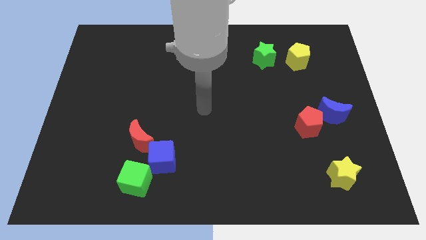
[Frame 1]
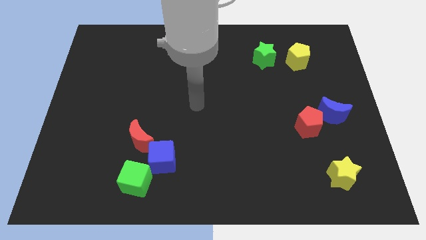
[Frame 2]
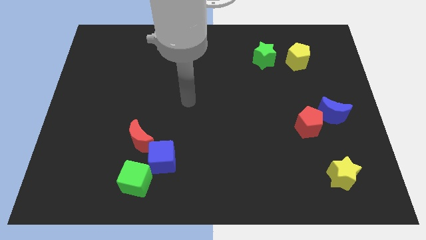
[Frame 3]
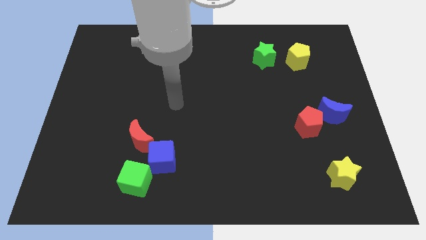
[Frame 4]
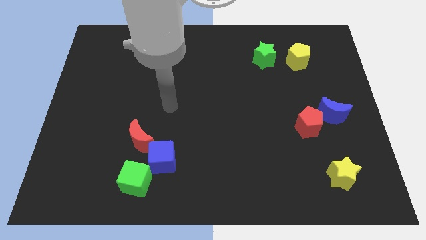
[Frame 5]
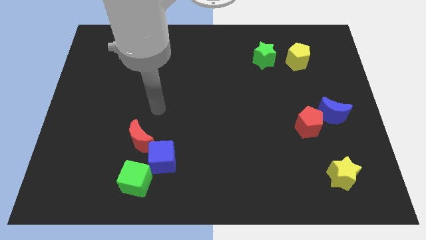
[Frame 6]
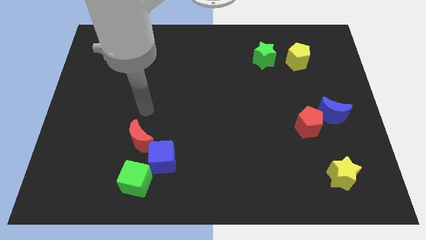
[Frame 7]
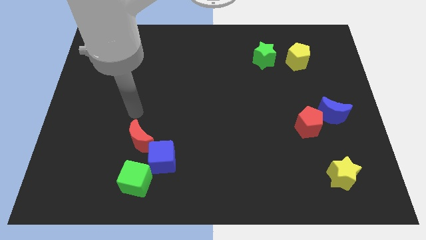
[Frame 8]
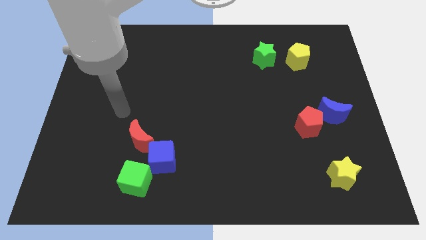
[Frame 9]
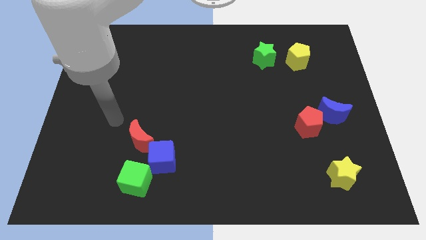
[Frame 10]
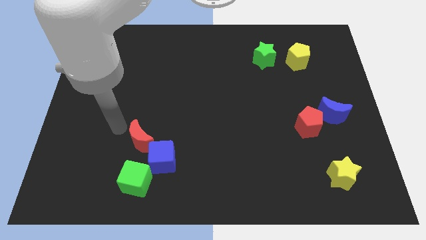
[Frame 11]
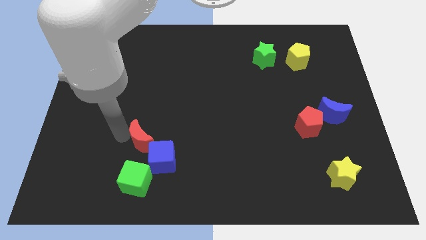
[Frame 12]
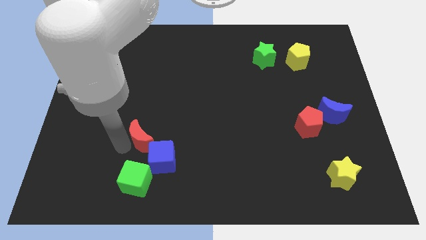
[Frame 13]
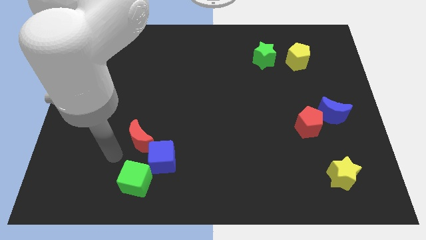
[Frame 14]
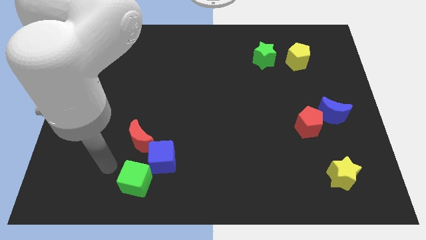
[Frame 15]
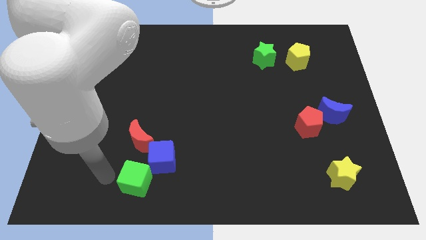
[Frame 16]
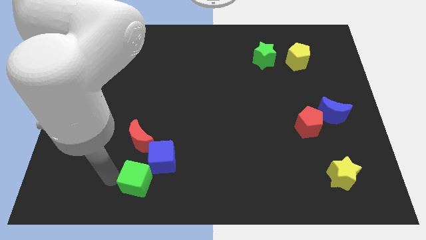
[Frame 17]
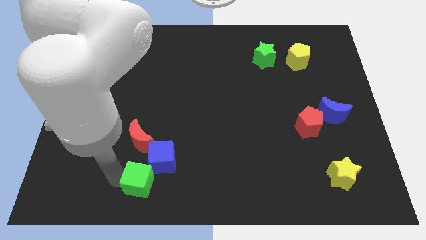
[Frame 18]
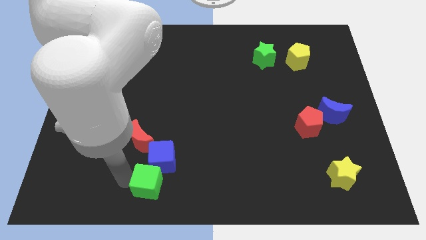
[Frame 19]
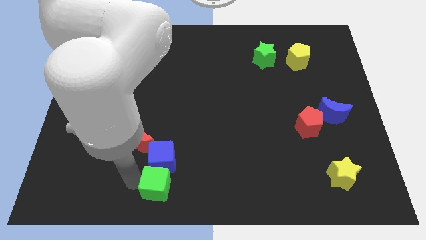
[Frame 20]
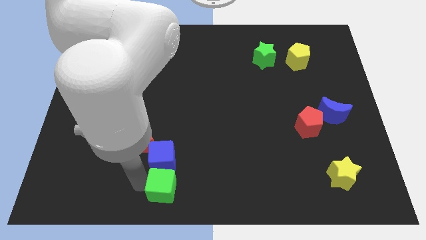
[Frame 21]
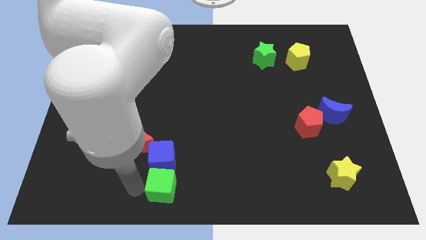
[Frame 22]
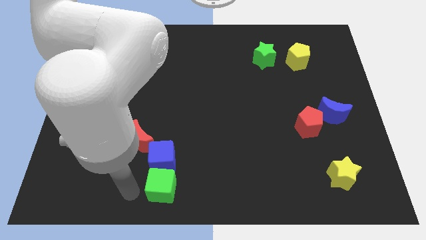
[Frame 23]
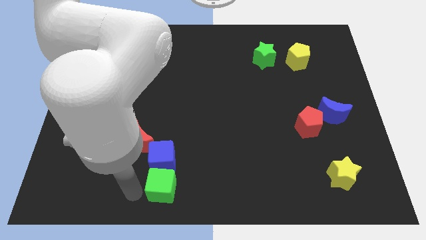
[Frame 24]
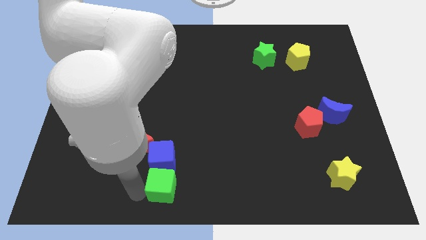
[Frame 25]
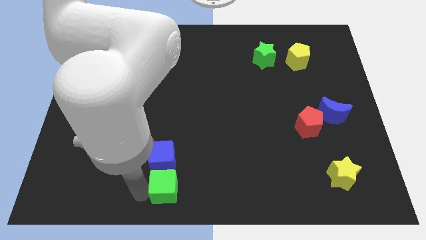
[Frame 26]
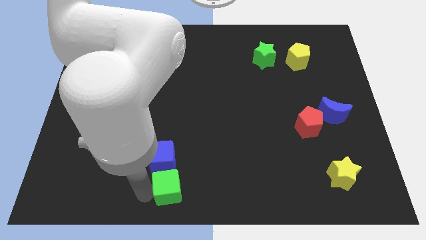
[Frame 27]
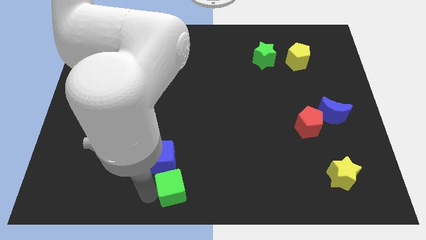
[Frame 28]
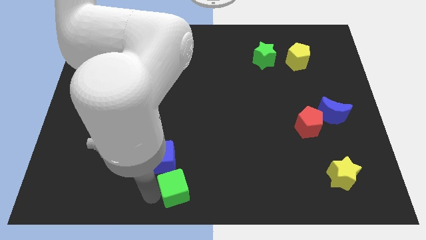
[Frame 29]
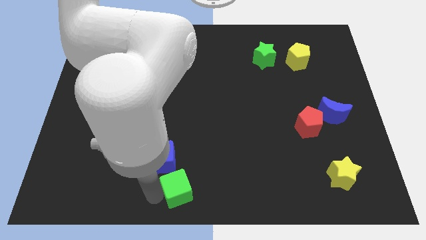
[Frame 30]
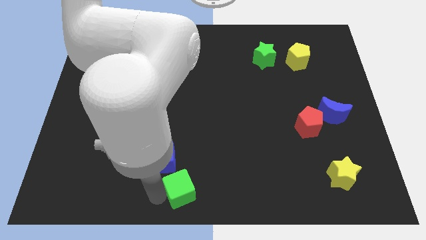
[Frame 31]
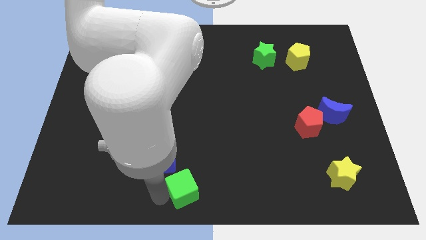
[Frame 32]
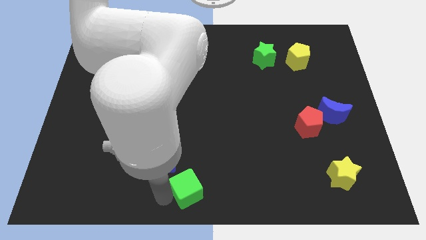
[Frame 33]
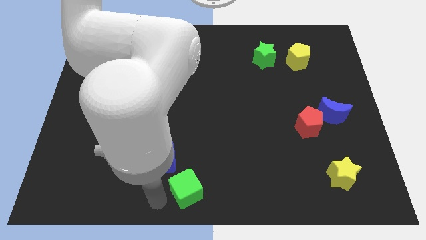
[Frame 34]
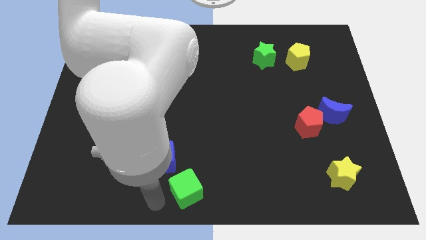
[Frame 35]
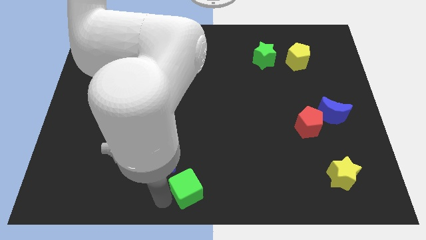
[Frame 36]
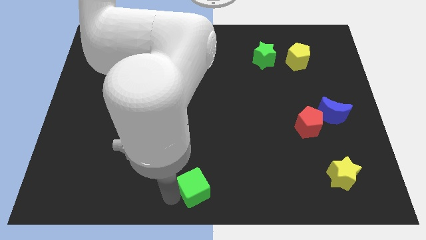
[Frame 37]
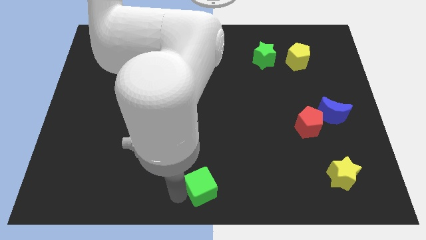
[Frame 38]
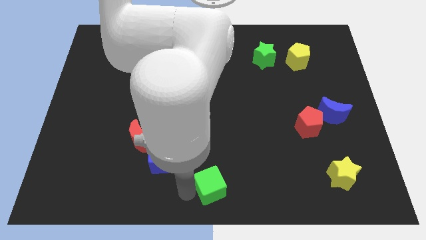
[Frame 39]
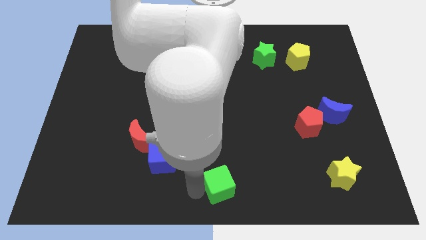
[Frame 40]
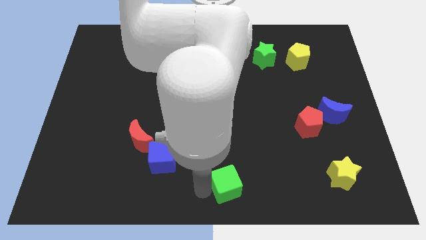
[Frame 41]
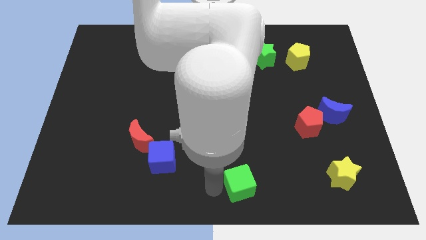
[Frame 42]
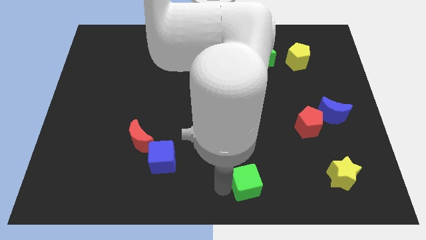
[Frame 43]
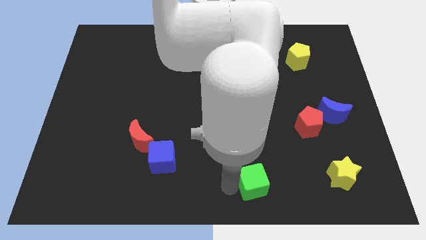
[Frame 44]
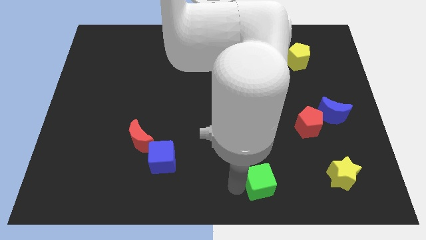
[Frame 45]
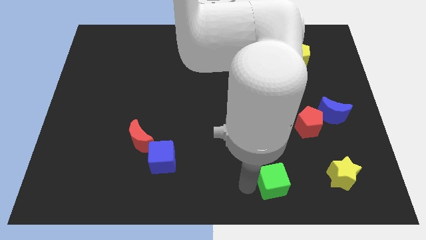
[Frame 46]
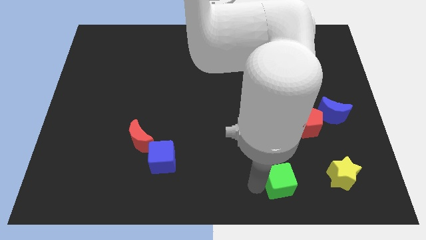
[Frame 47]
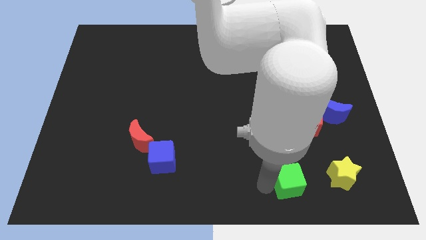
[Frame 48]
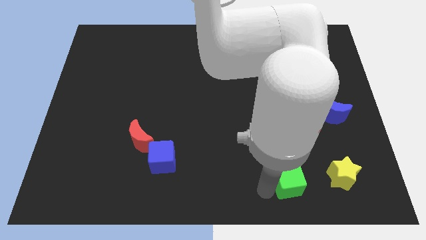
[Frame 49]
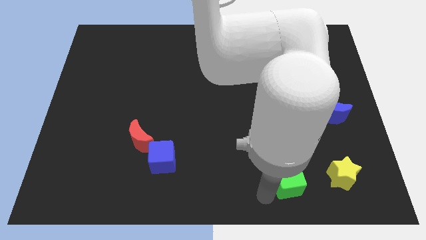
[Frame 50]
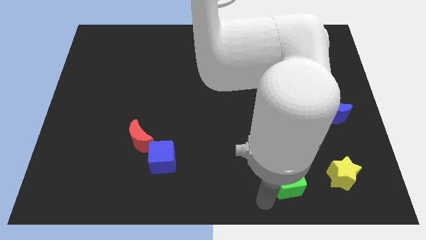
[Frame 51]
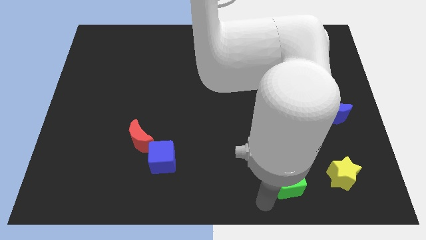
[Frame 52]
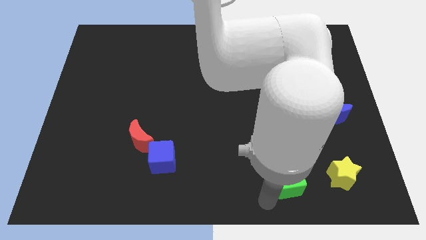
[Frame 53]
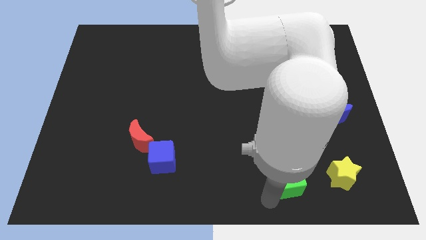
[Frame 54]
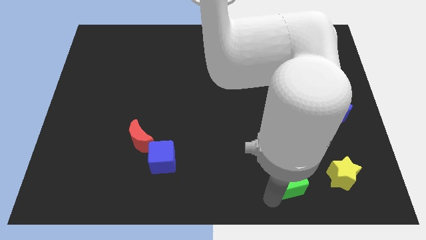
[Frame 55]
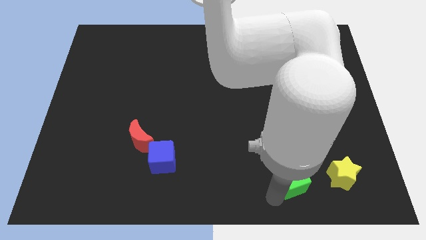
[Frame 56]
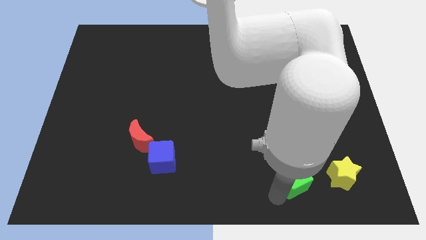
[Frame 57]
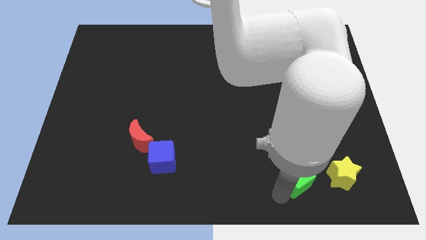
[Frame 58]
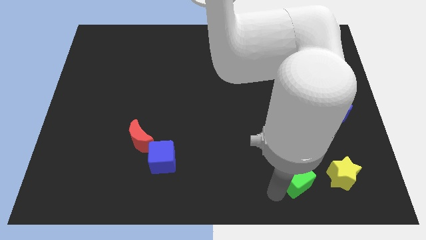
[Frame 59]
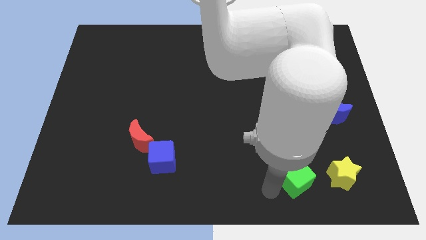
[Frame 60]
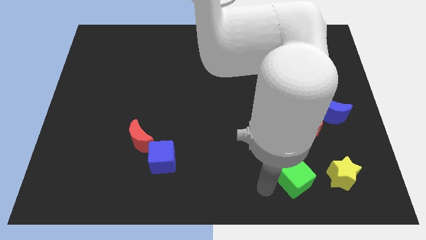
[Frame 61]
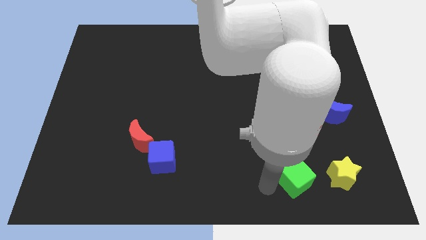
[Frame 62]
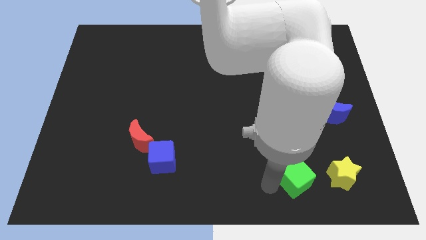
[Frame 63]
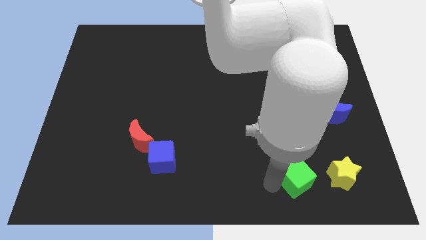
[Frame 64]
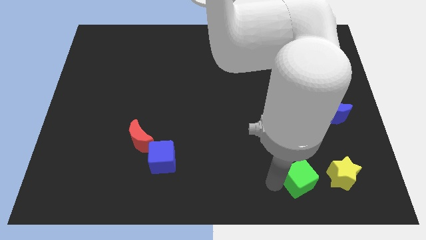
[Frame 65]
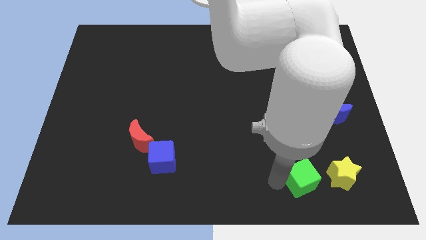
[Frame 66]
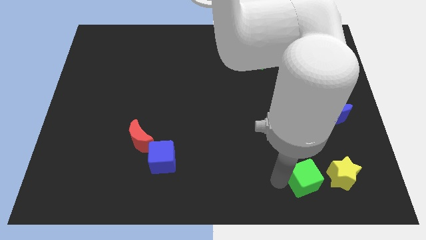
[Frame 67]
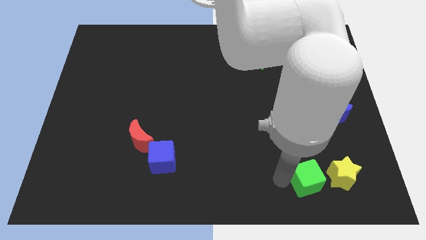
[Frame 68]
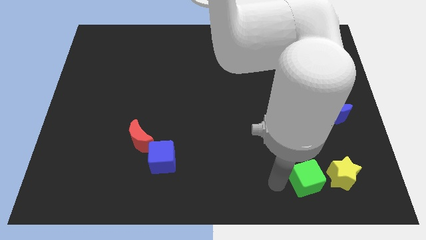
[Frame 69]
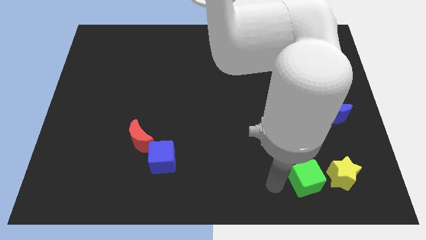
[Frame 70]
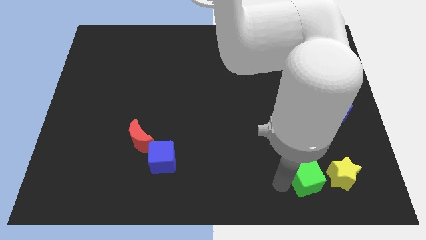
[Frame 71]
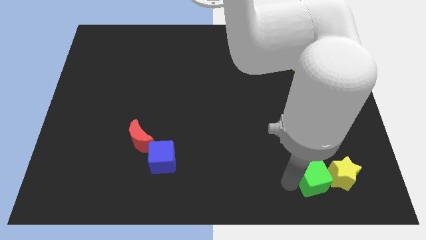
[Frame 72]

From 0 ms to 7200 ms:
move the green cube to the yellow star
